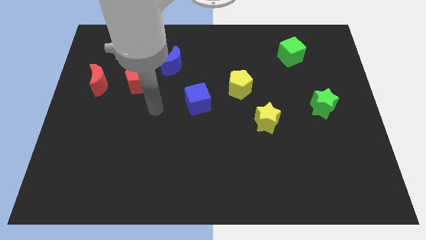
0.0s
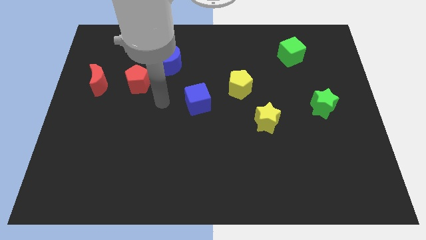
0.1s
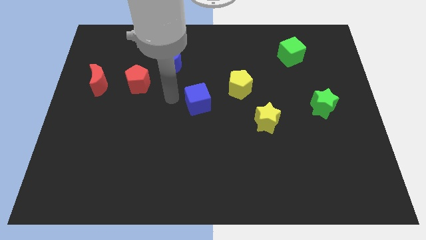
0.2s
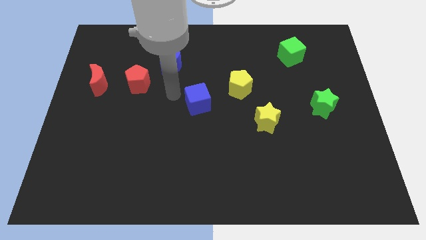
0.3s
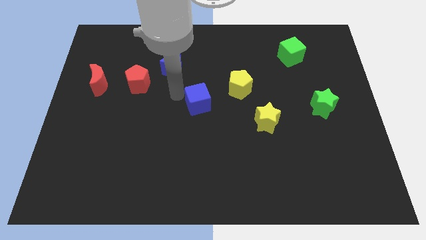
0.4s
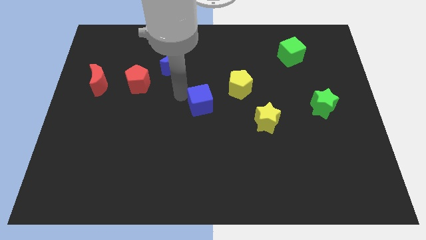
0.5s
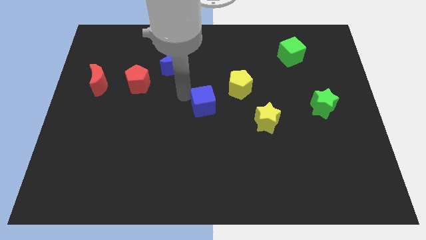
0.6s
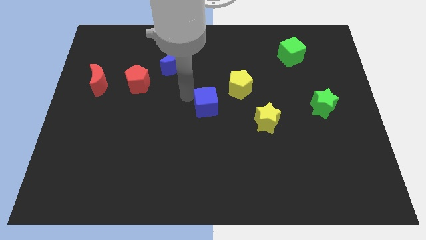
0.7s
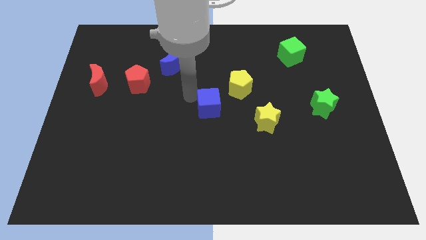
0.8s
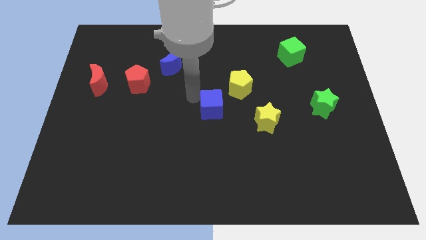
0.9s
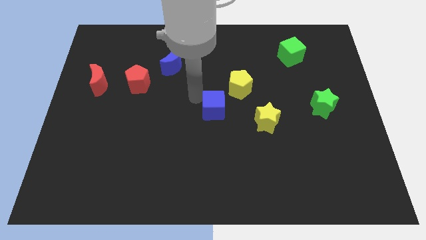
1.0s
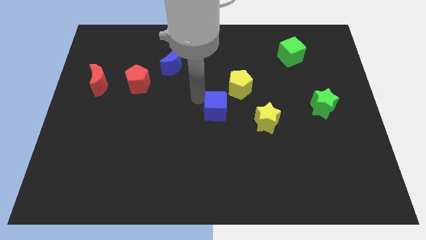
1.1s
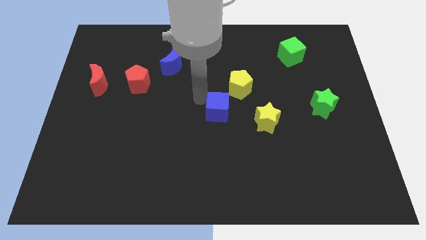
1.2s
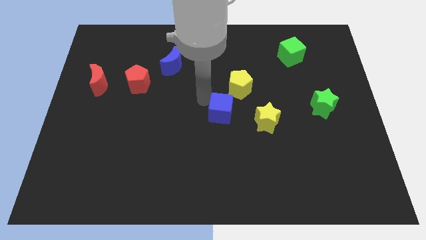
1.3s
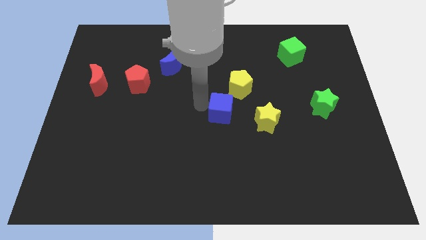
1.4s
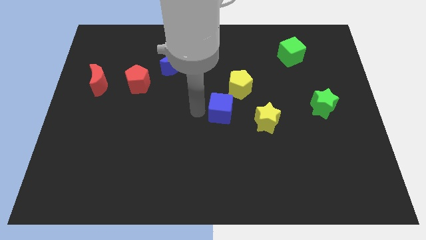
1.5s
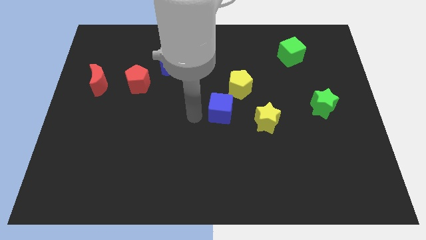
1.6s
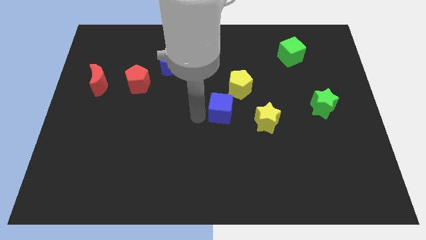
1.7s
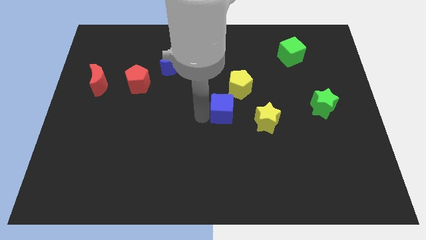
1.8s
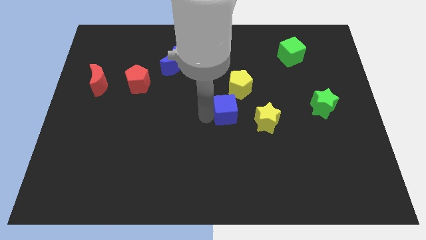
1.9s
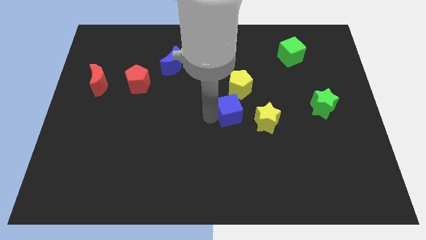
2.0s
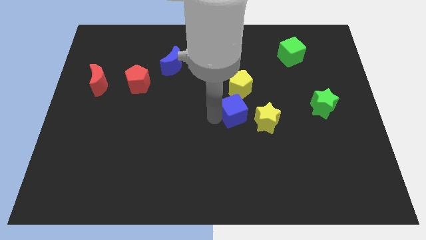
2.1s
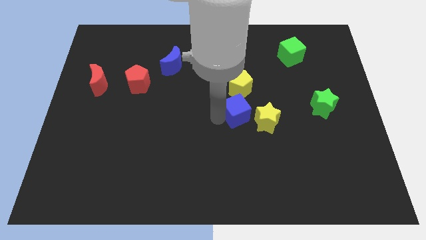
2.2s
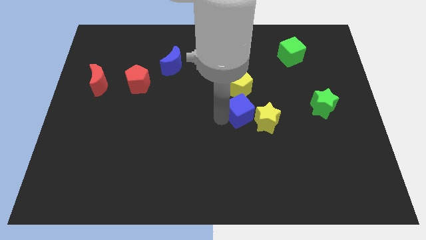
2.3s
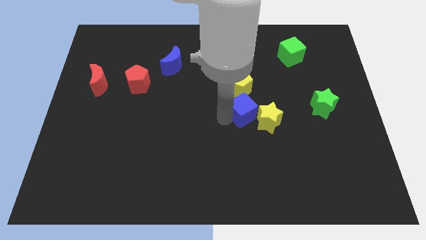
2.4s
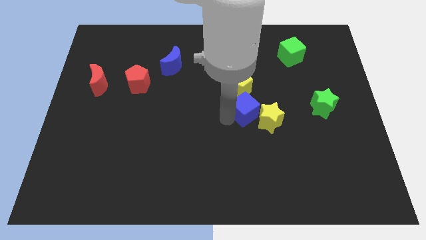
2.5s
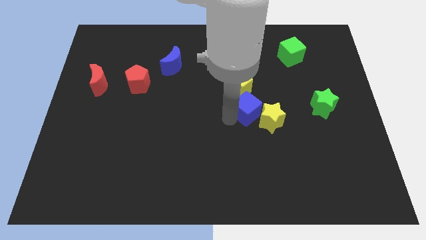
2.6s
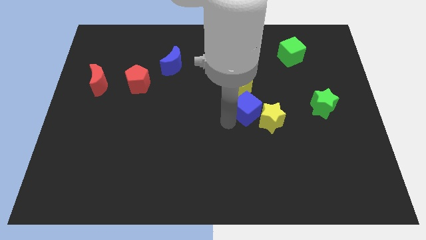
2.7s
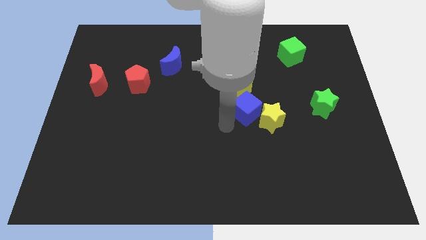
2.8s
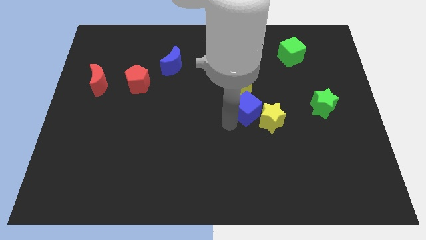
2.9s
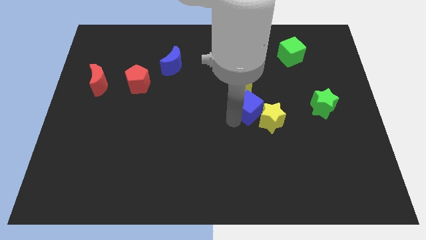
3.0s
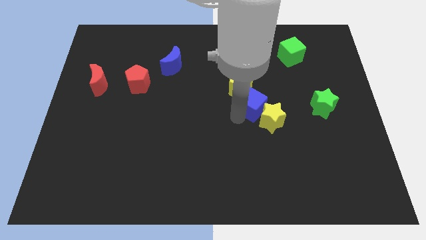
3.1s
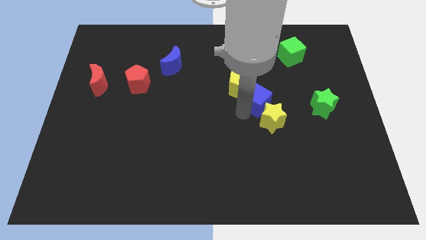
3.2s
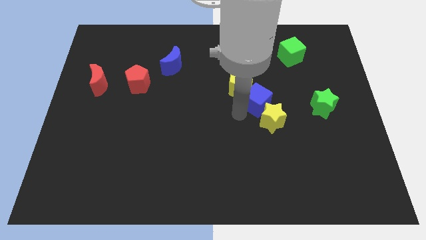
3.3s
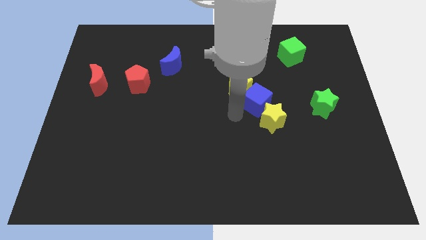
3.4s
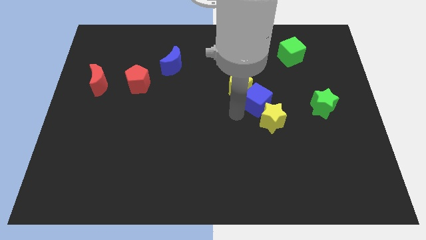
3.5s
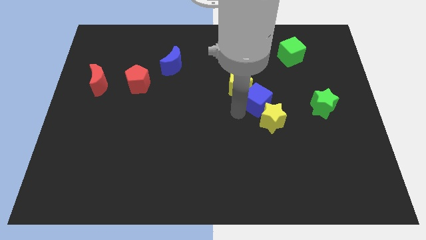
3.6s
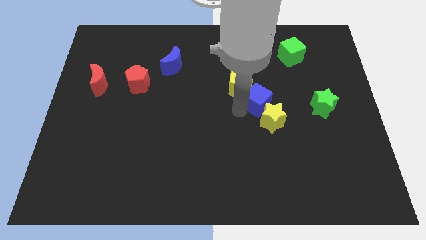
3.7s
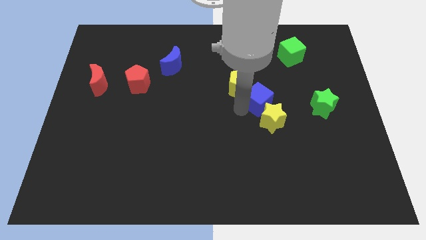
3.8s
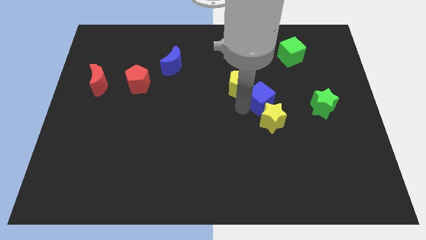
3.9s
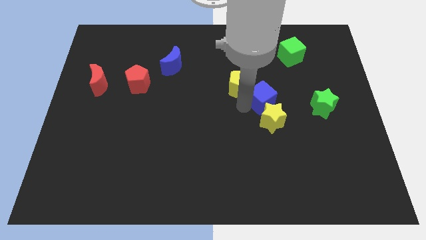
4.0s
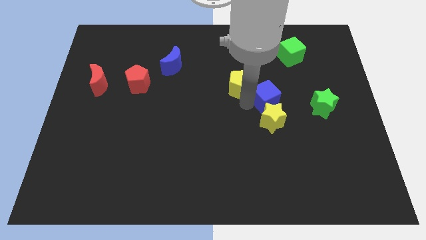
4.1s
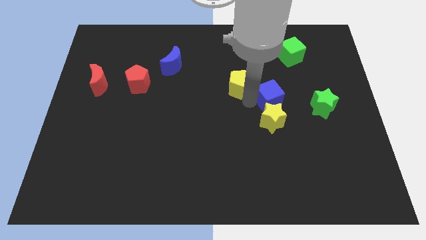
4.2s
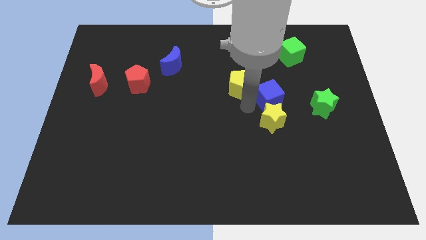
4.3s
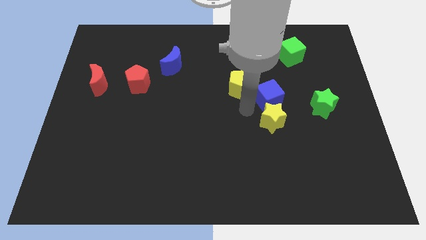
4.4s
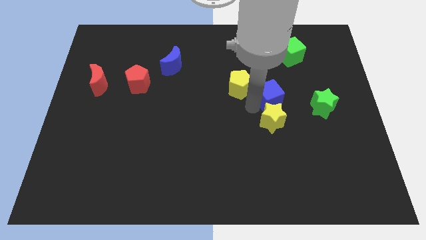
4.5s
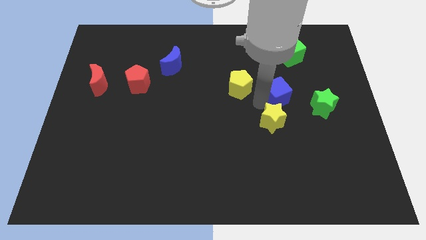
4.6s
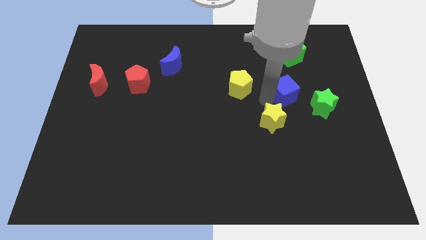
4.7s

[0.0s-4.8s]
slide the blue cube below the green cube

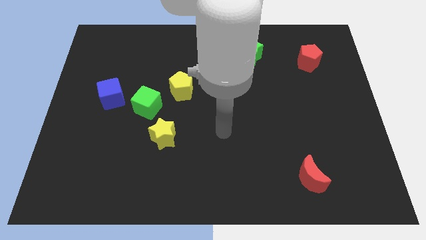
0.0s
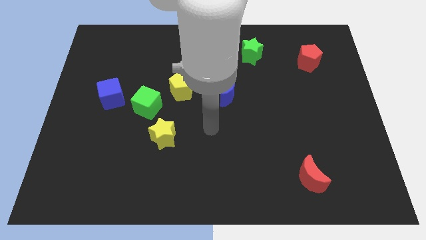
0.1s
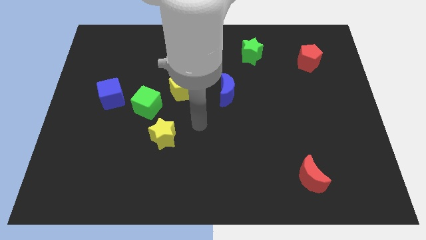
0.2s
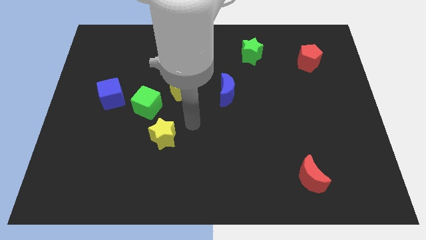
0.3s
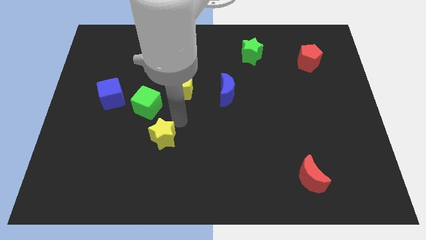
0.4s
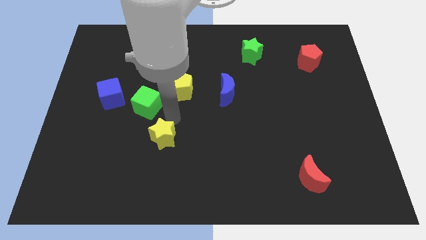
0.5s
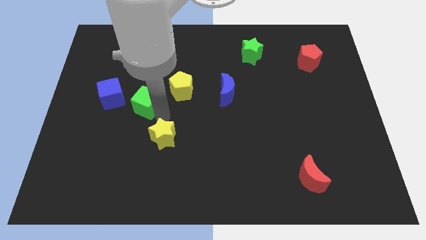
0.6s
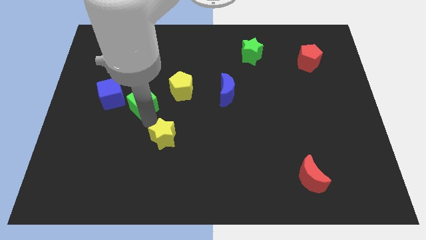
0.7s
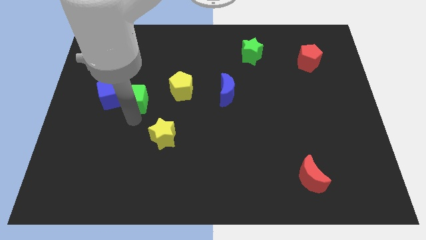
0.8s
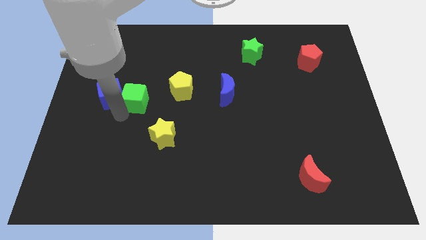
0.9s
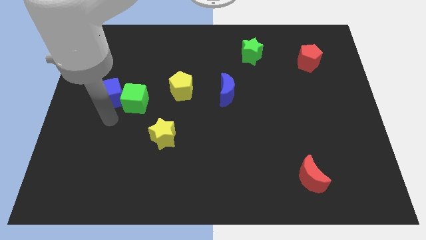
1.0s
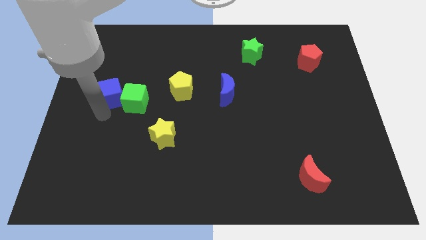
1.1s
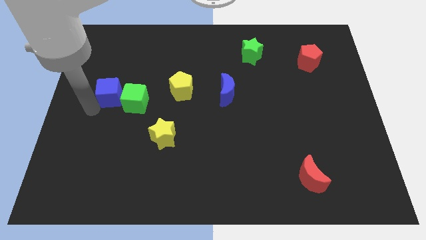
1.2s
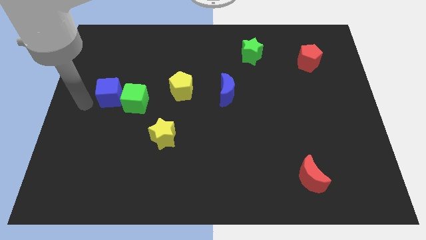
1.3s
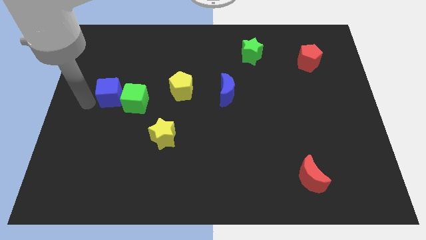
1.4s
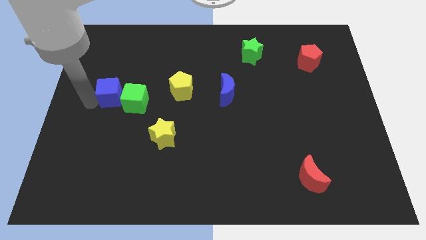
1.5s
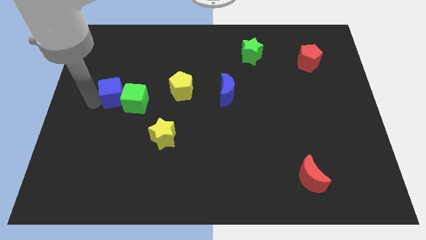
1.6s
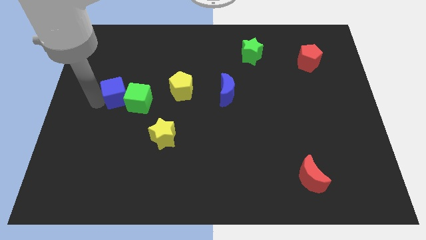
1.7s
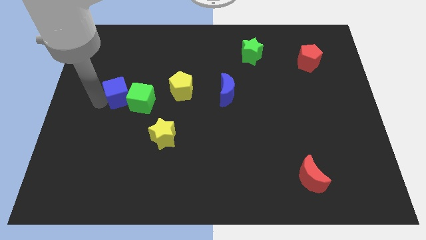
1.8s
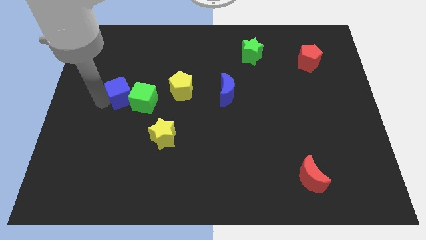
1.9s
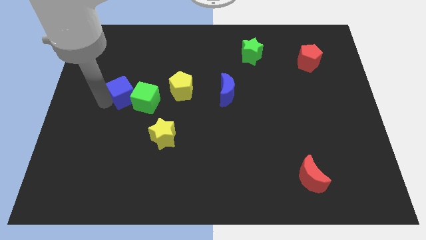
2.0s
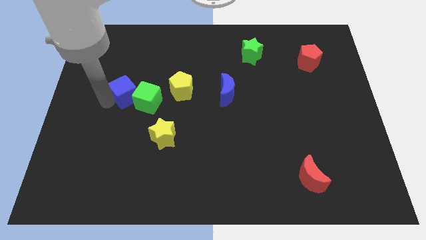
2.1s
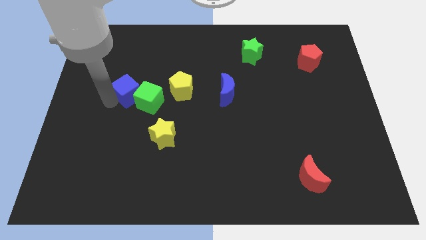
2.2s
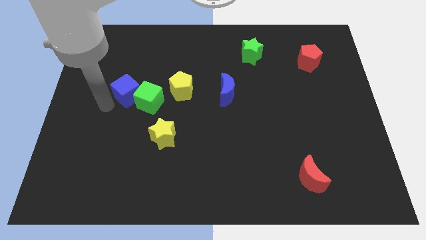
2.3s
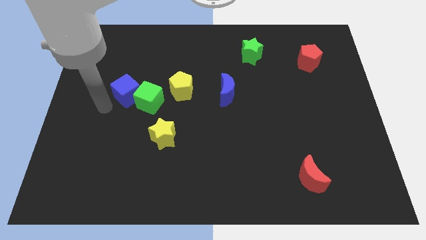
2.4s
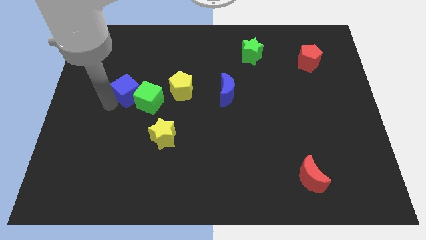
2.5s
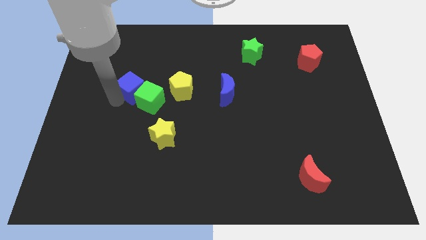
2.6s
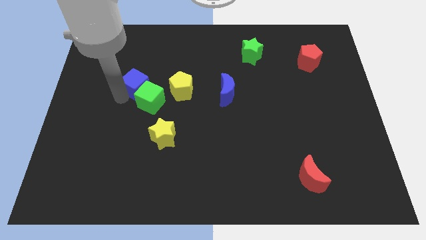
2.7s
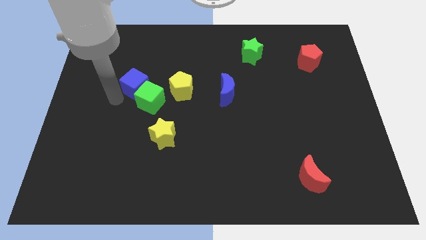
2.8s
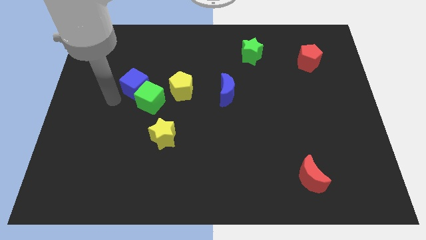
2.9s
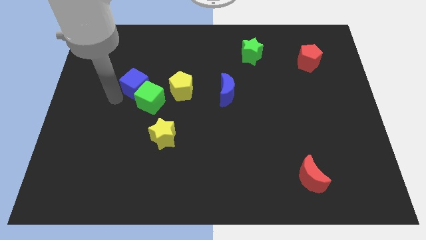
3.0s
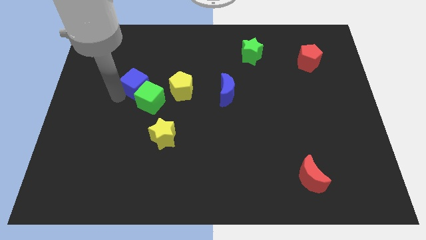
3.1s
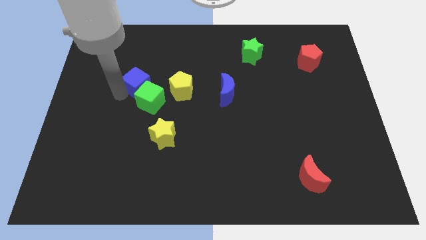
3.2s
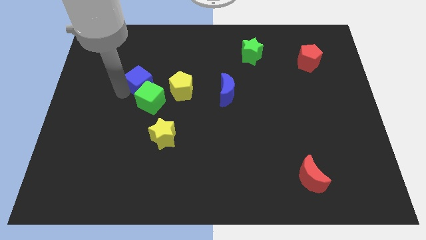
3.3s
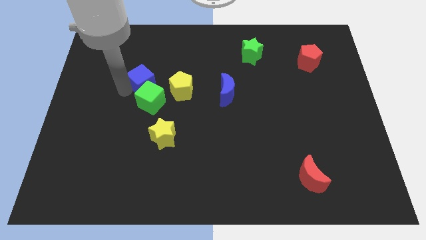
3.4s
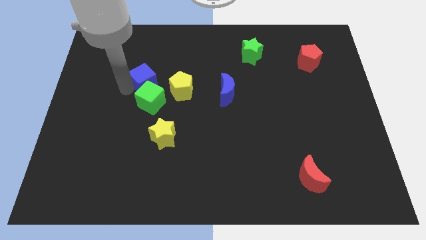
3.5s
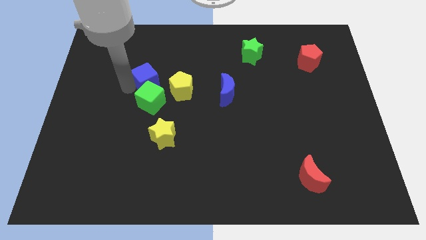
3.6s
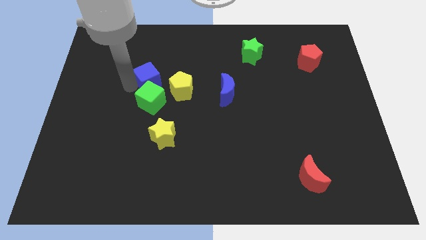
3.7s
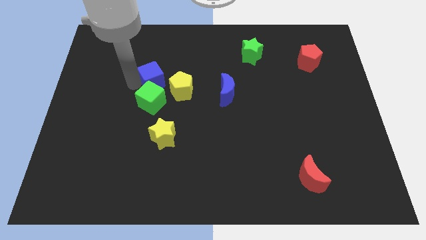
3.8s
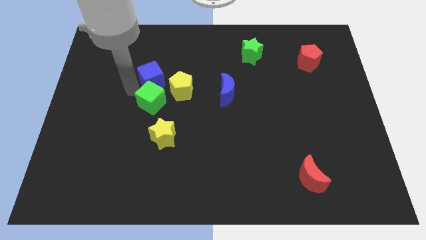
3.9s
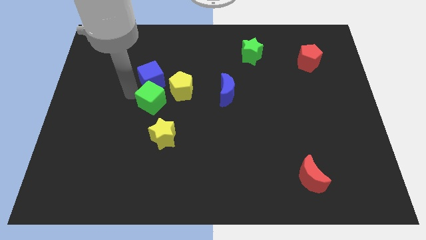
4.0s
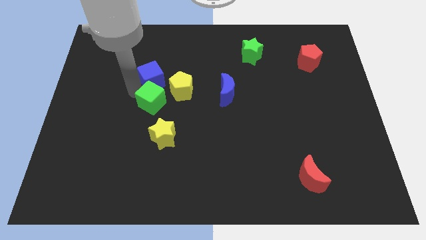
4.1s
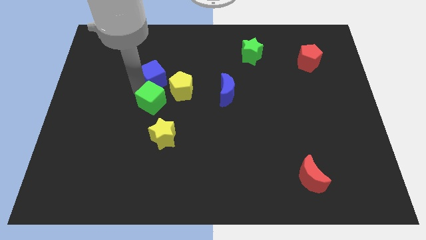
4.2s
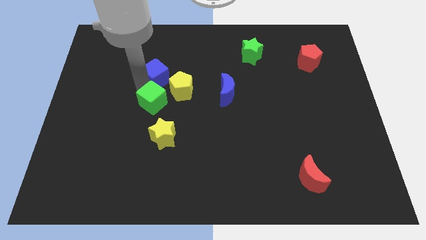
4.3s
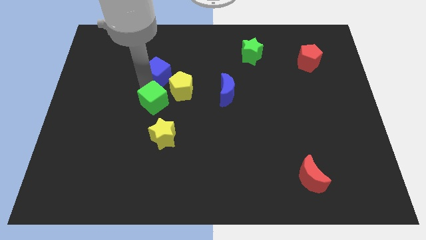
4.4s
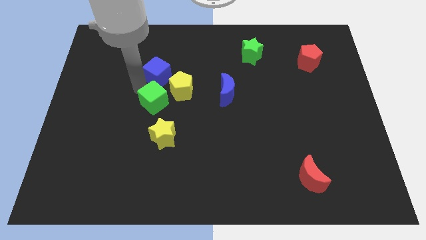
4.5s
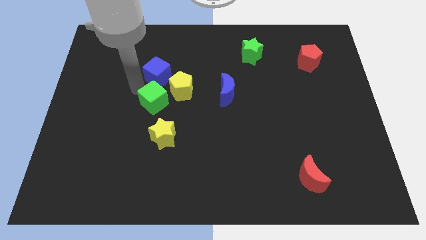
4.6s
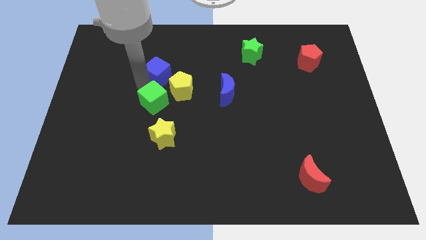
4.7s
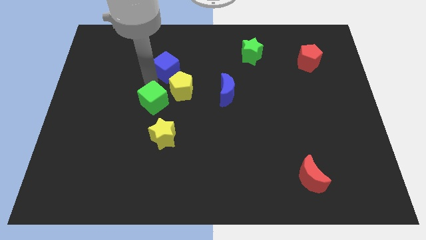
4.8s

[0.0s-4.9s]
slide the blue cube above the yellow pentagon
